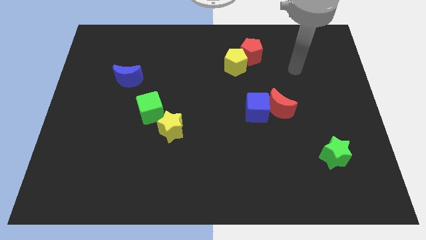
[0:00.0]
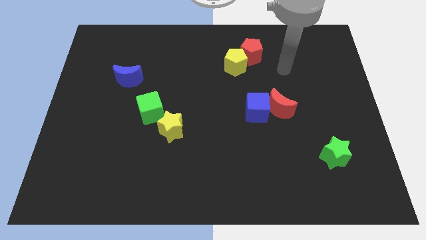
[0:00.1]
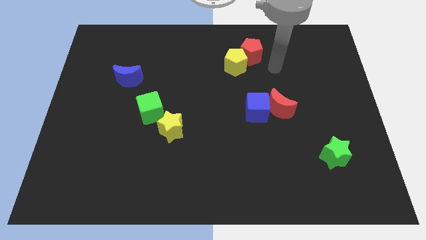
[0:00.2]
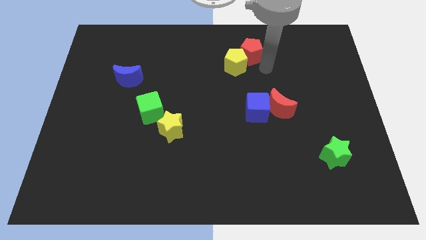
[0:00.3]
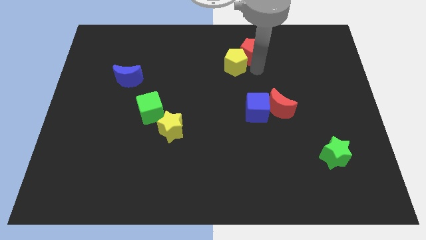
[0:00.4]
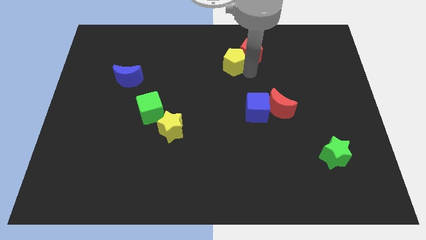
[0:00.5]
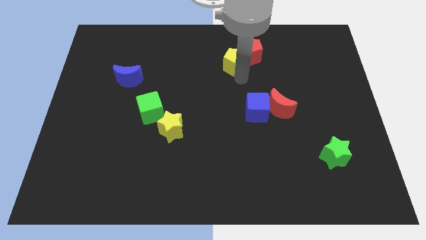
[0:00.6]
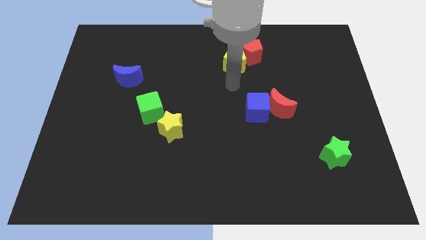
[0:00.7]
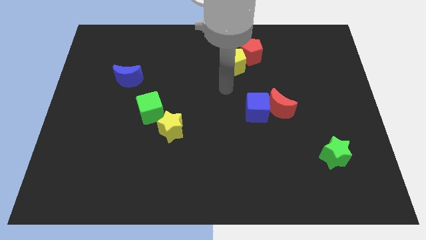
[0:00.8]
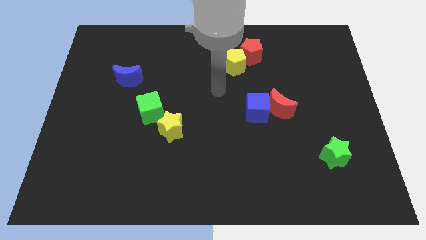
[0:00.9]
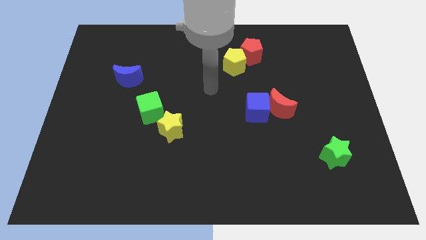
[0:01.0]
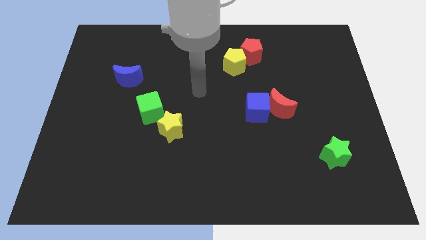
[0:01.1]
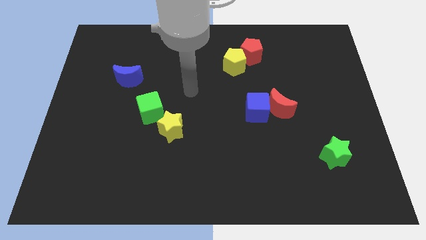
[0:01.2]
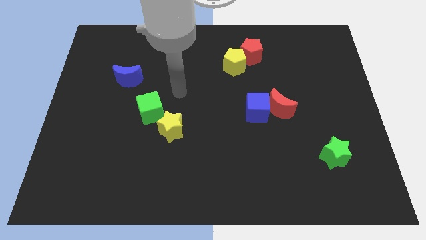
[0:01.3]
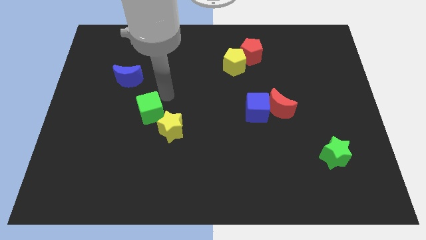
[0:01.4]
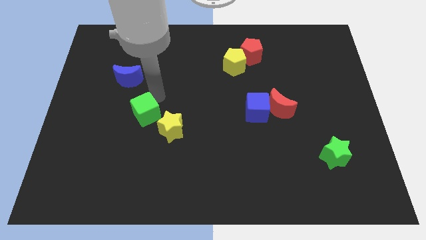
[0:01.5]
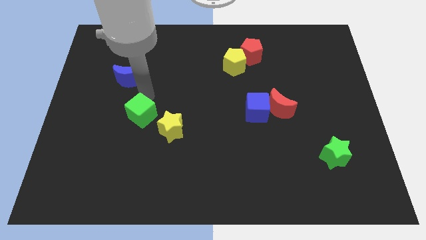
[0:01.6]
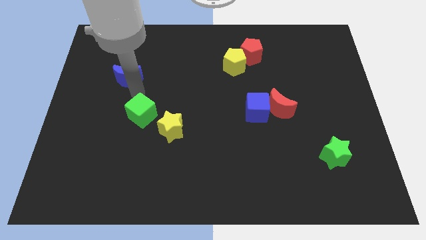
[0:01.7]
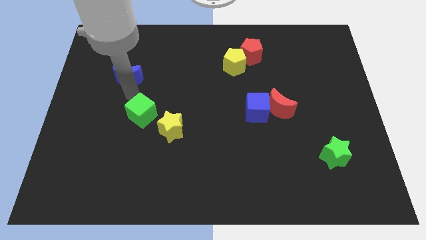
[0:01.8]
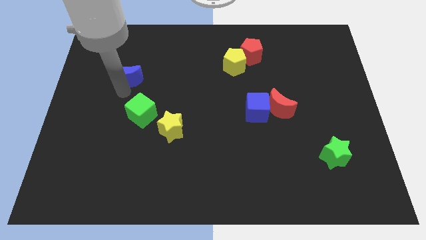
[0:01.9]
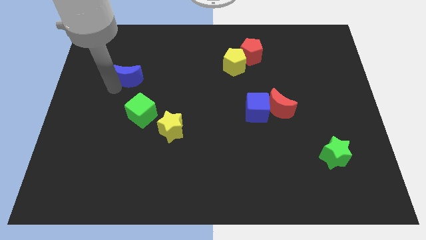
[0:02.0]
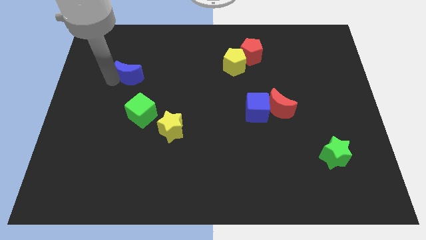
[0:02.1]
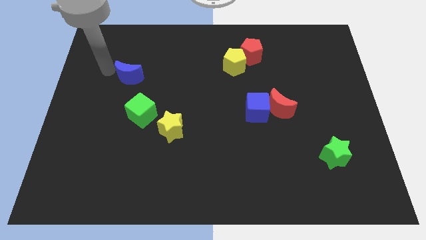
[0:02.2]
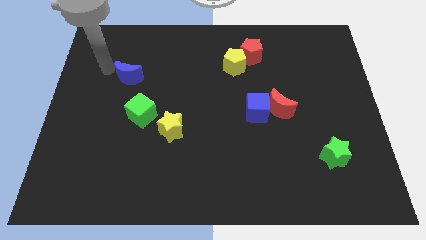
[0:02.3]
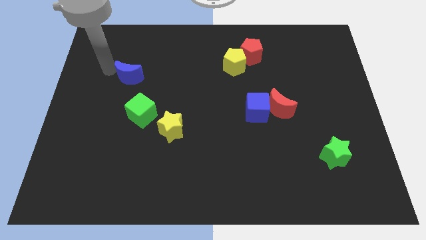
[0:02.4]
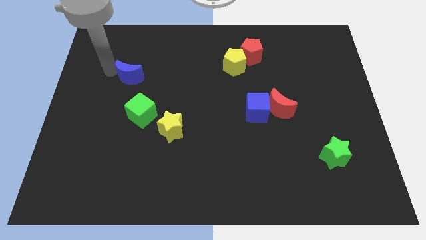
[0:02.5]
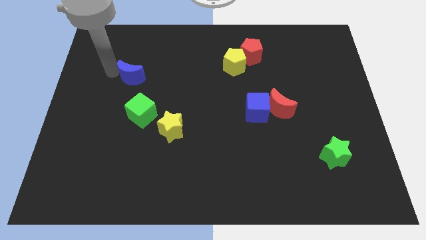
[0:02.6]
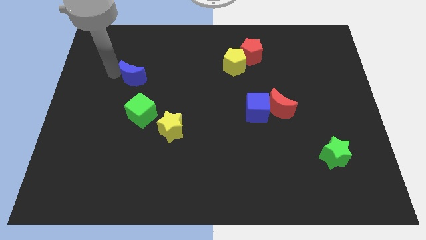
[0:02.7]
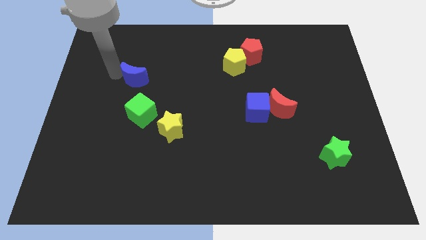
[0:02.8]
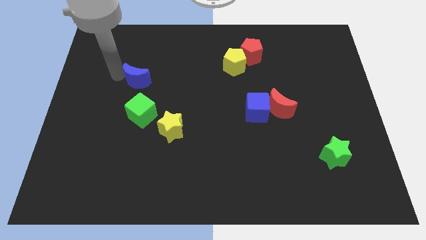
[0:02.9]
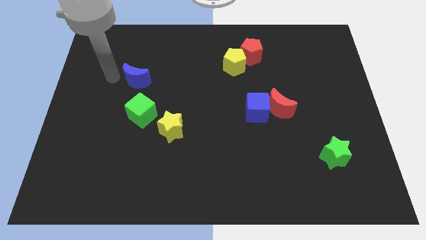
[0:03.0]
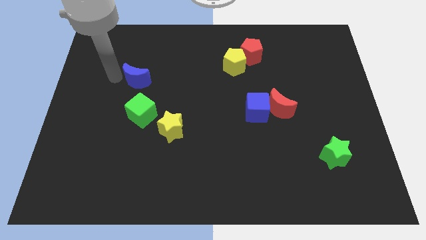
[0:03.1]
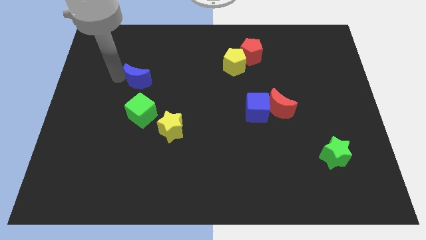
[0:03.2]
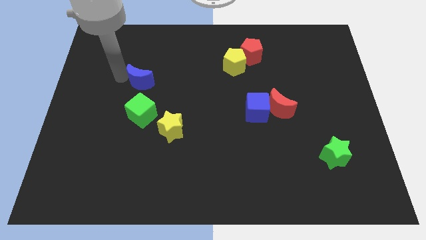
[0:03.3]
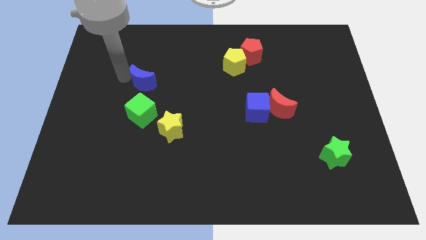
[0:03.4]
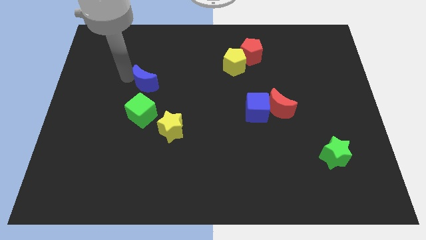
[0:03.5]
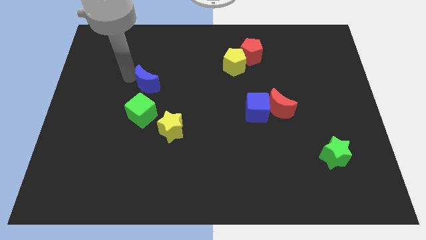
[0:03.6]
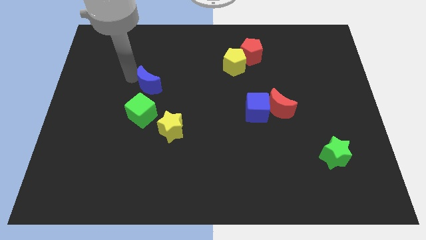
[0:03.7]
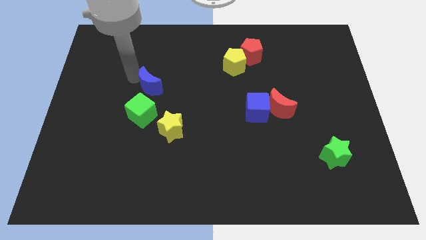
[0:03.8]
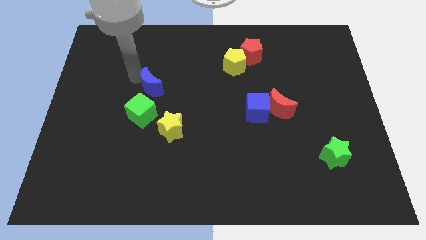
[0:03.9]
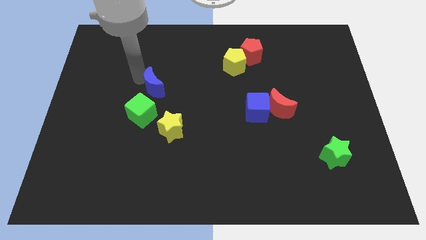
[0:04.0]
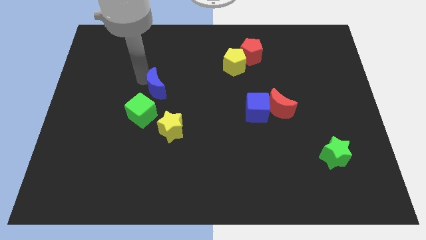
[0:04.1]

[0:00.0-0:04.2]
push the blue moon somewhat to the right

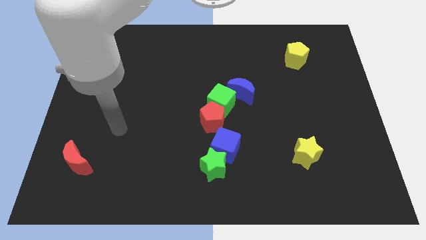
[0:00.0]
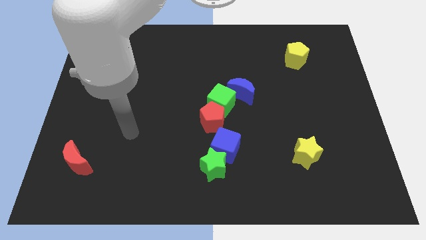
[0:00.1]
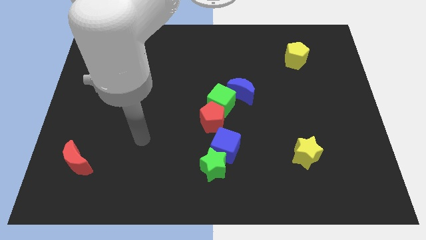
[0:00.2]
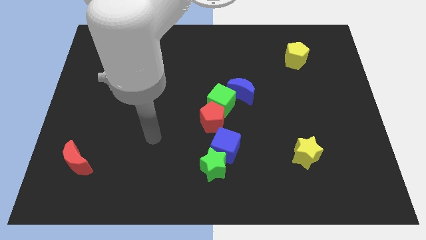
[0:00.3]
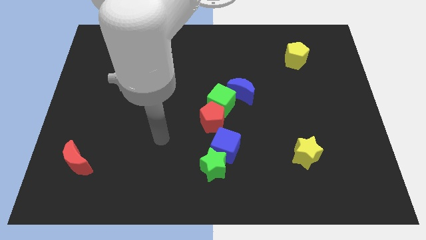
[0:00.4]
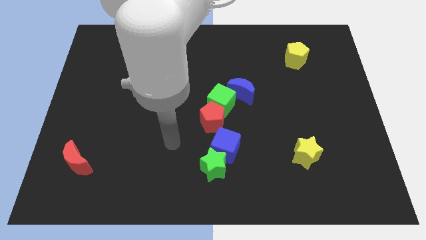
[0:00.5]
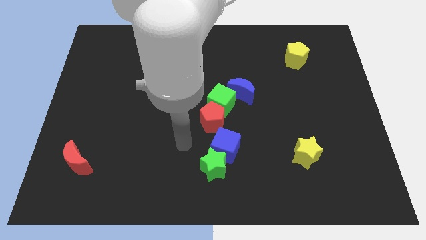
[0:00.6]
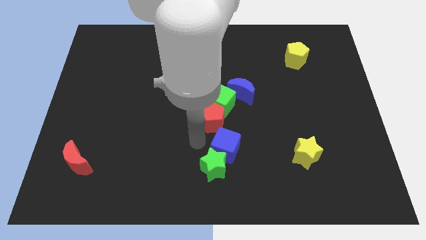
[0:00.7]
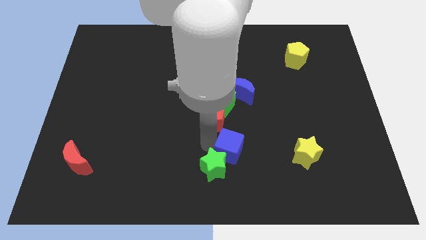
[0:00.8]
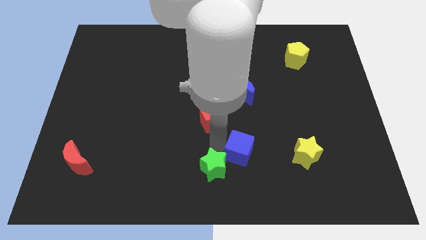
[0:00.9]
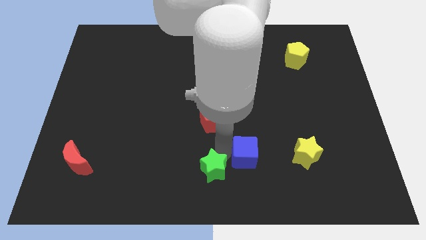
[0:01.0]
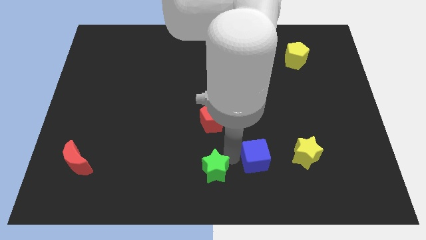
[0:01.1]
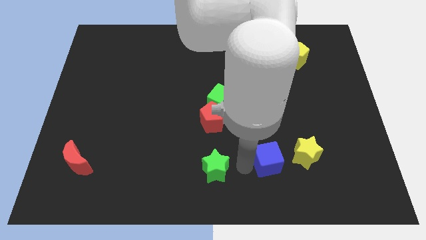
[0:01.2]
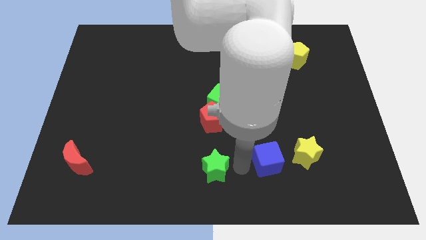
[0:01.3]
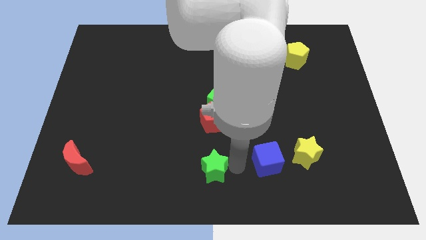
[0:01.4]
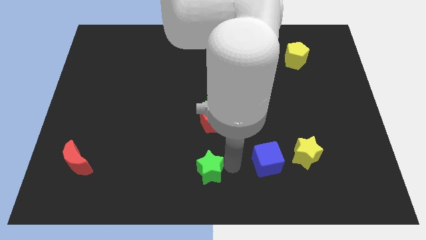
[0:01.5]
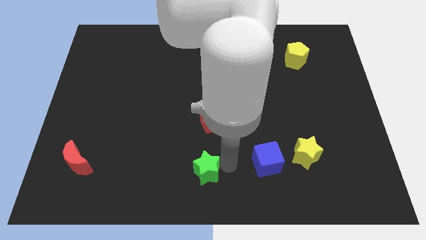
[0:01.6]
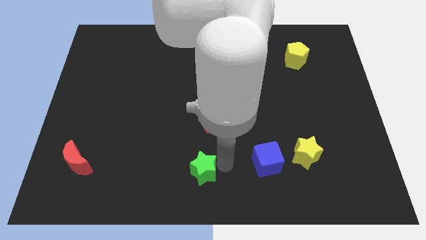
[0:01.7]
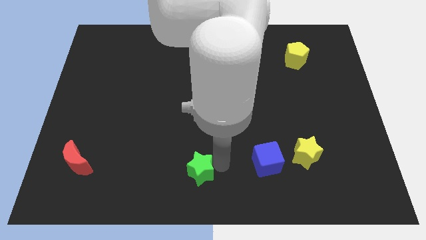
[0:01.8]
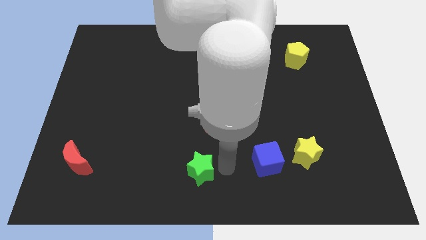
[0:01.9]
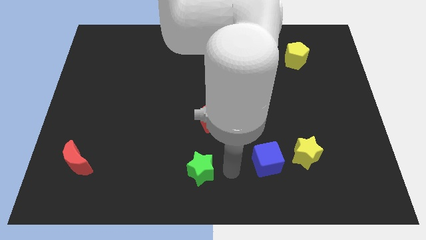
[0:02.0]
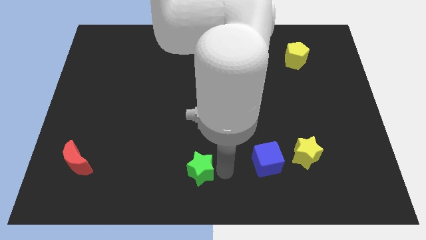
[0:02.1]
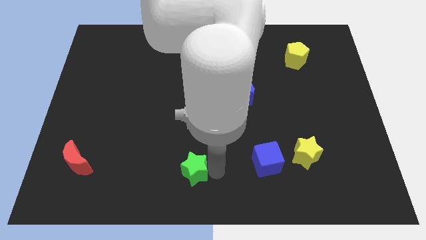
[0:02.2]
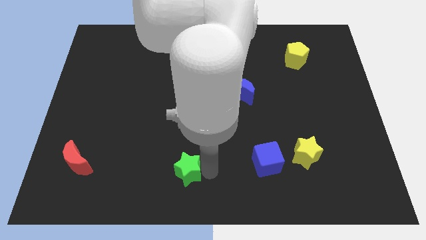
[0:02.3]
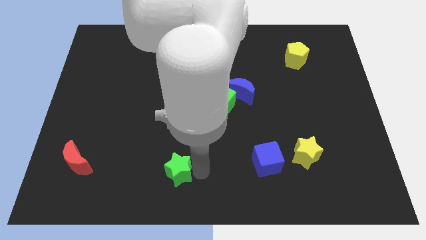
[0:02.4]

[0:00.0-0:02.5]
push the green star left a little bit

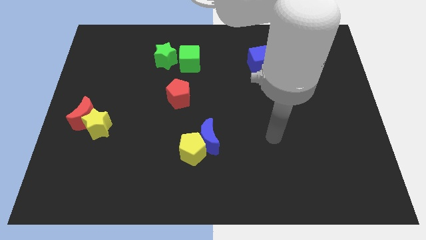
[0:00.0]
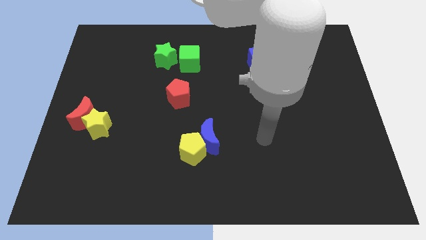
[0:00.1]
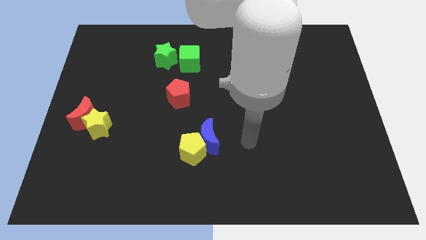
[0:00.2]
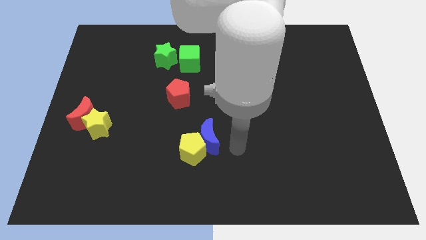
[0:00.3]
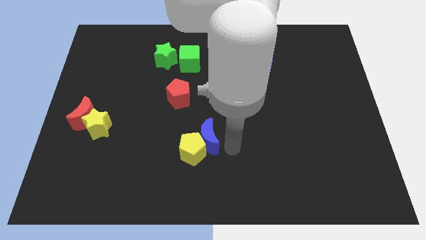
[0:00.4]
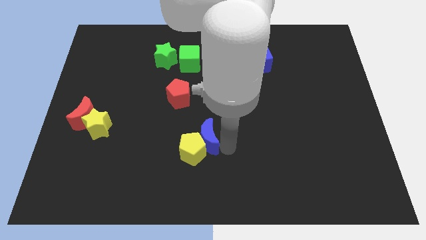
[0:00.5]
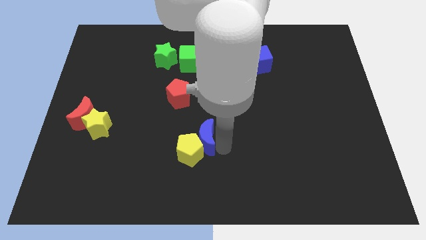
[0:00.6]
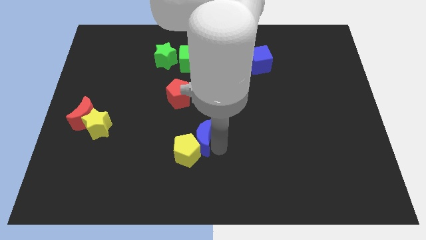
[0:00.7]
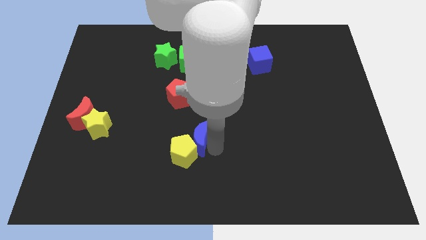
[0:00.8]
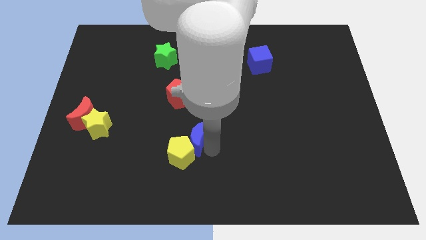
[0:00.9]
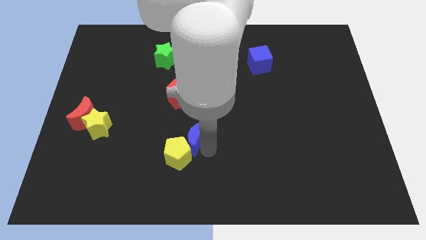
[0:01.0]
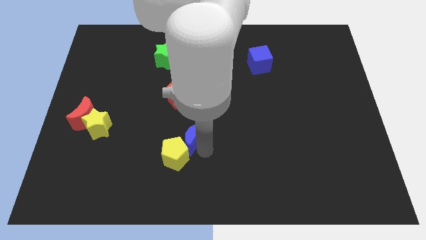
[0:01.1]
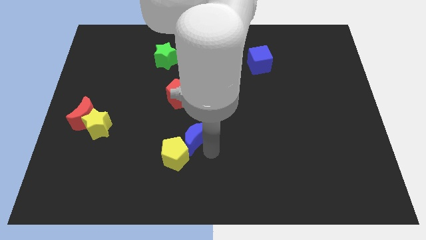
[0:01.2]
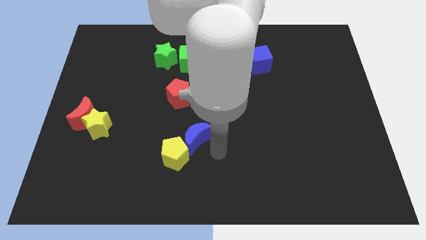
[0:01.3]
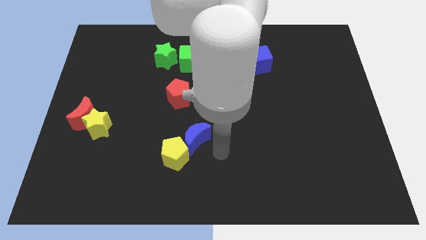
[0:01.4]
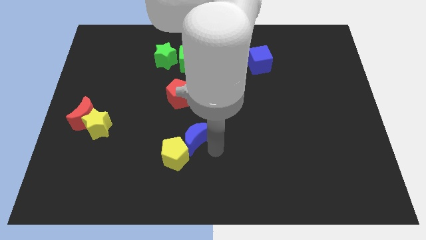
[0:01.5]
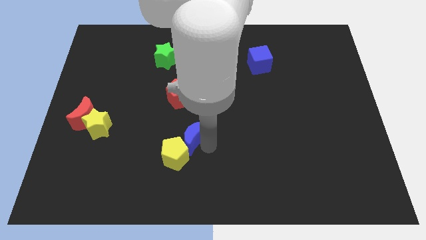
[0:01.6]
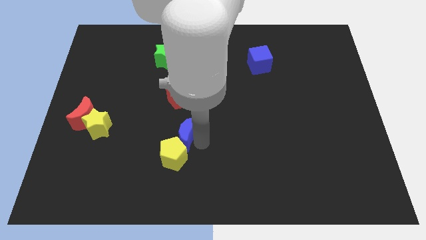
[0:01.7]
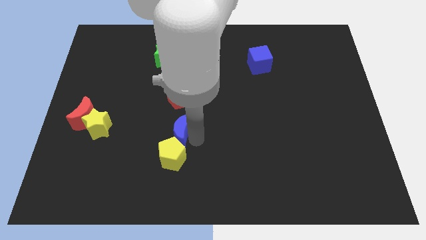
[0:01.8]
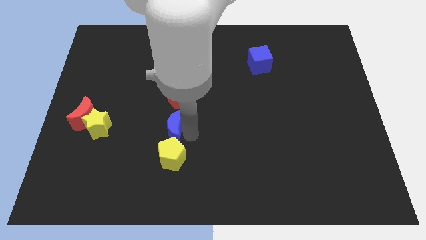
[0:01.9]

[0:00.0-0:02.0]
move the blue moon somewhat left
